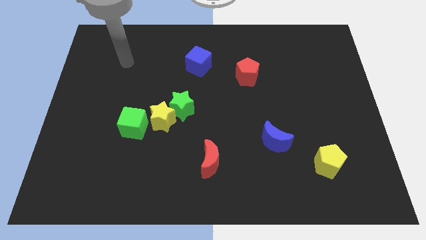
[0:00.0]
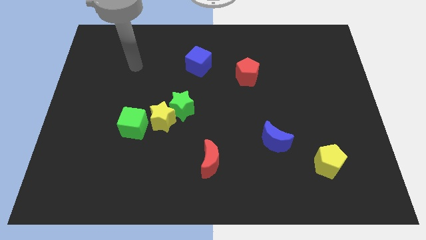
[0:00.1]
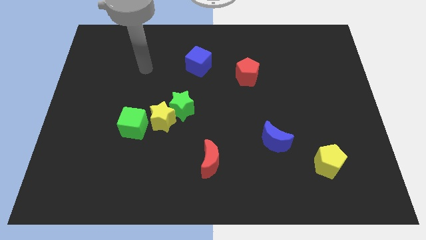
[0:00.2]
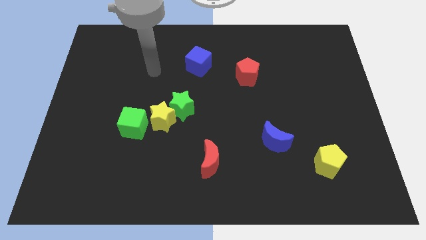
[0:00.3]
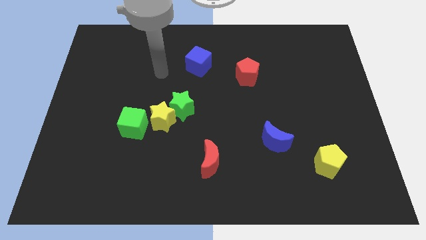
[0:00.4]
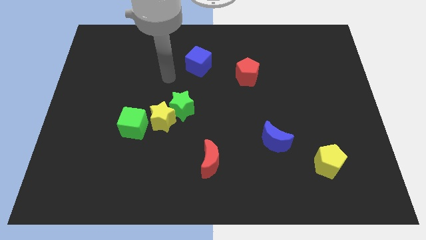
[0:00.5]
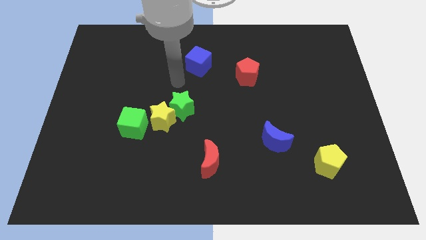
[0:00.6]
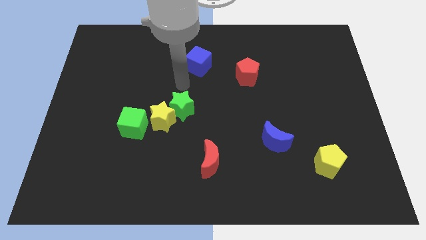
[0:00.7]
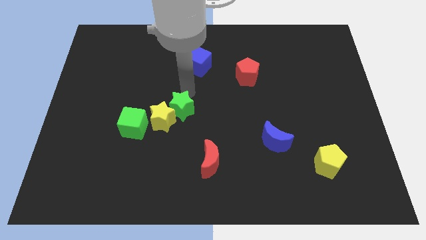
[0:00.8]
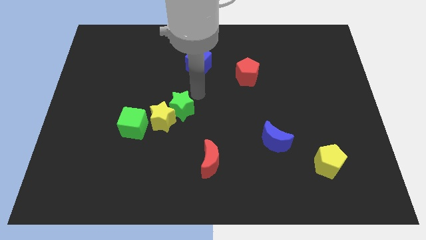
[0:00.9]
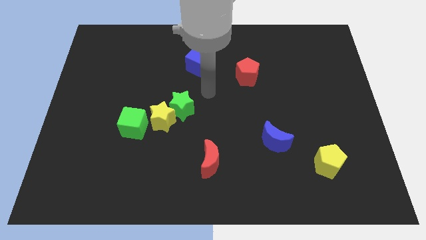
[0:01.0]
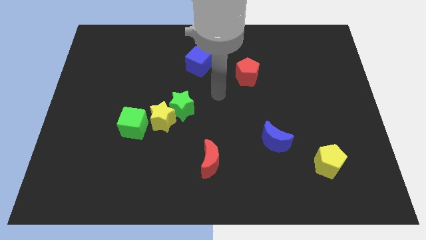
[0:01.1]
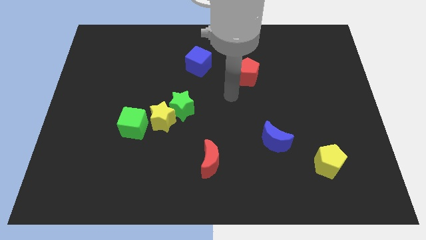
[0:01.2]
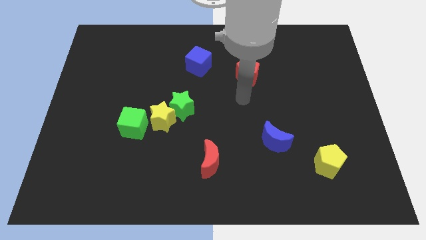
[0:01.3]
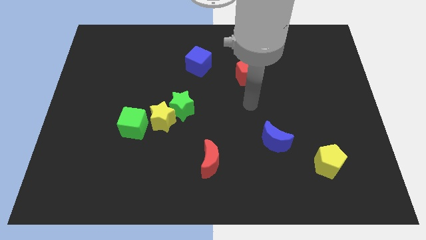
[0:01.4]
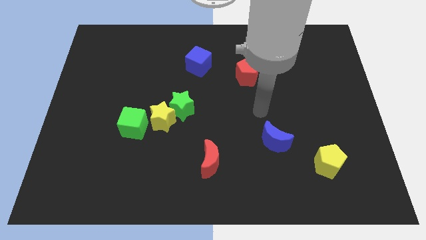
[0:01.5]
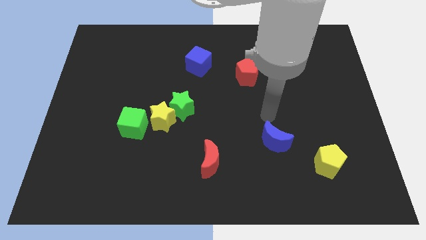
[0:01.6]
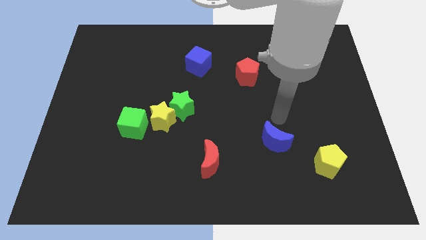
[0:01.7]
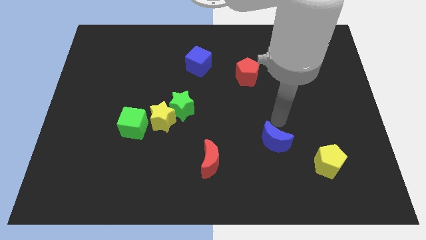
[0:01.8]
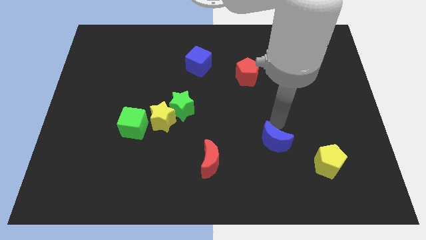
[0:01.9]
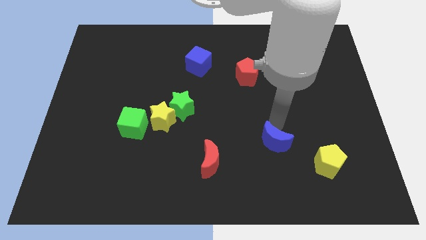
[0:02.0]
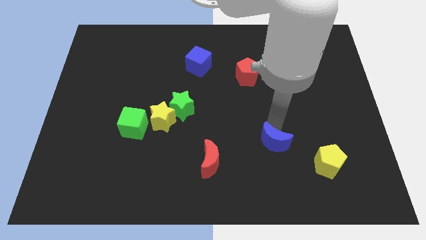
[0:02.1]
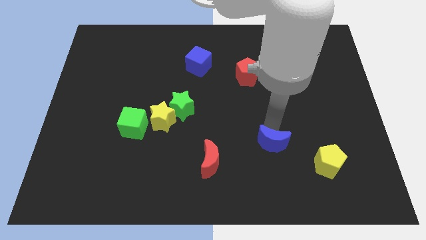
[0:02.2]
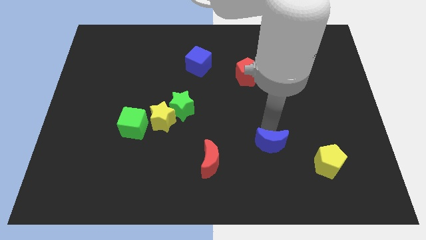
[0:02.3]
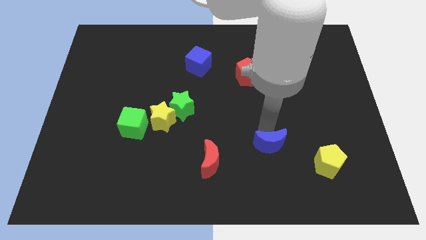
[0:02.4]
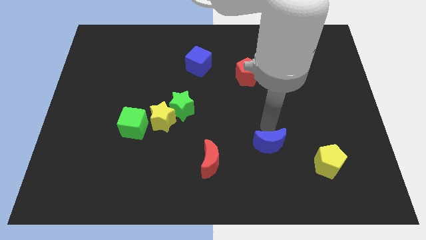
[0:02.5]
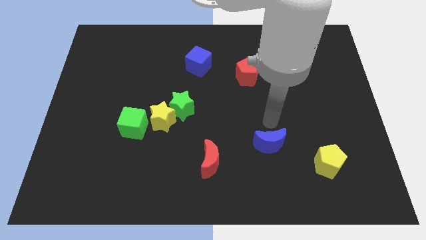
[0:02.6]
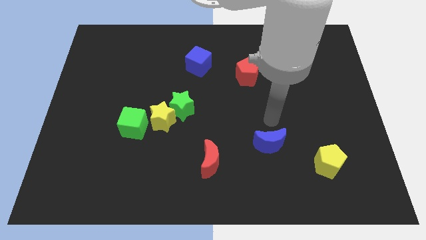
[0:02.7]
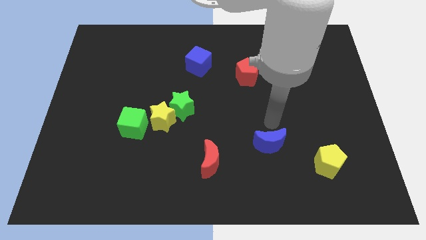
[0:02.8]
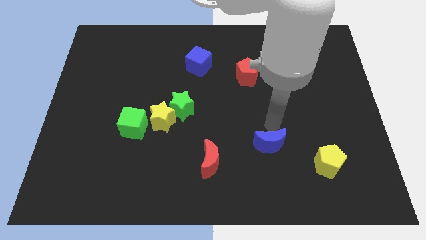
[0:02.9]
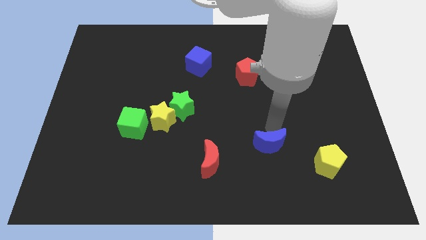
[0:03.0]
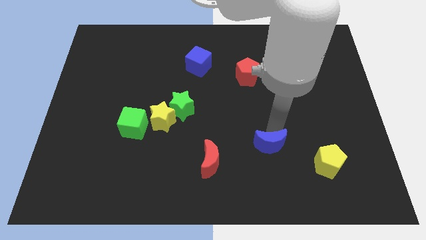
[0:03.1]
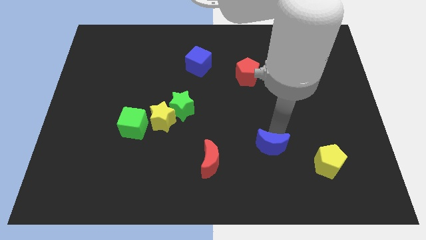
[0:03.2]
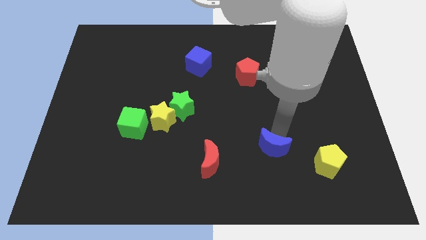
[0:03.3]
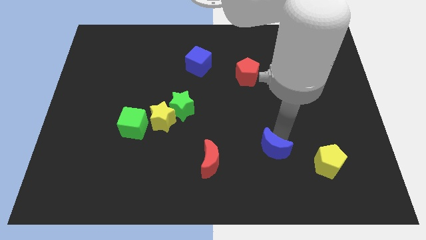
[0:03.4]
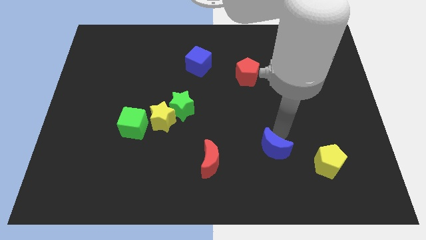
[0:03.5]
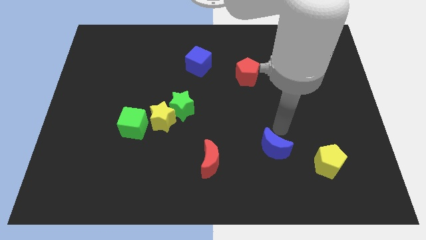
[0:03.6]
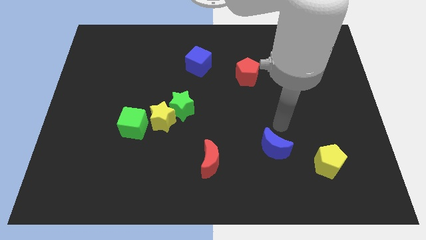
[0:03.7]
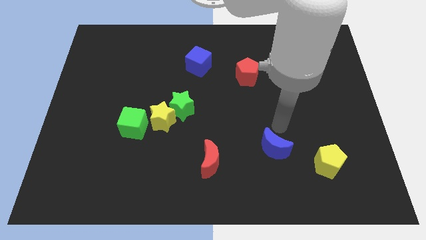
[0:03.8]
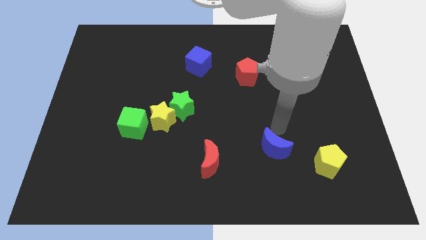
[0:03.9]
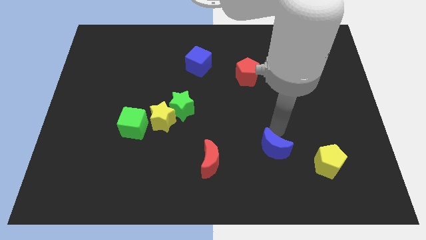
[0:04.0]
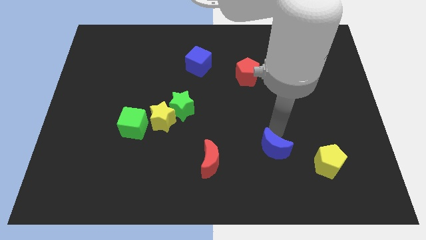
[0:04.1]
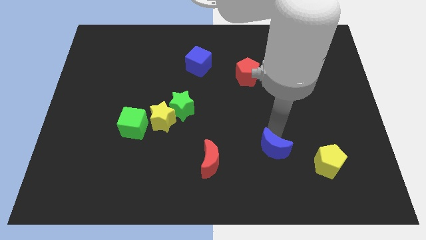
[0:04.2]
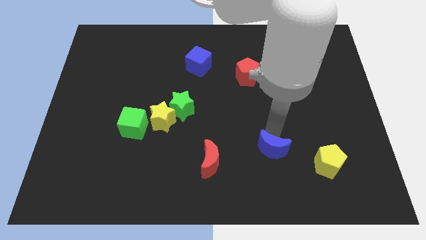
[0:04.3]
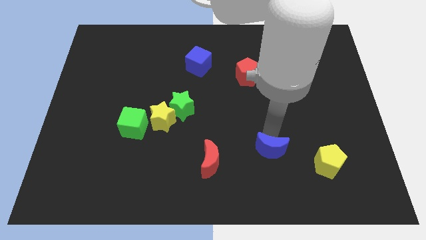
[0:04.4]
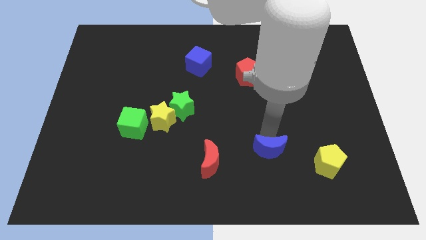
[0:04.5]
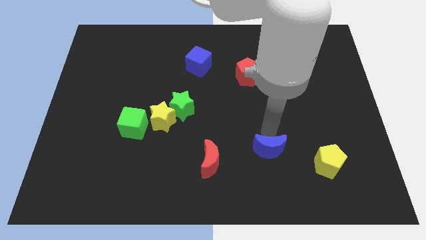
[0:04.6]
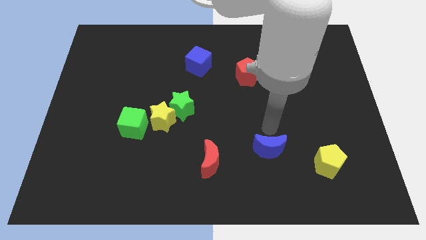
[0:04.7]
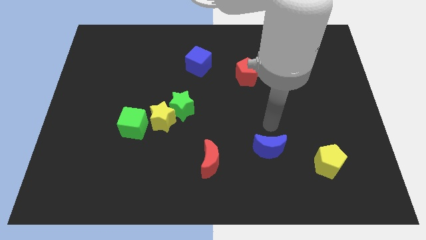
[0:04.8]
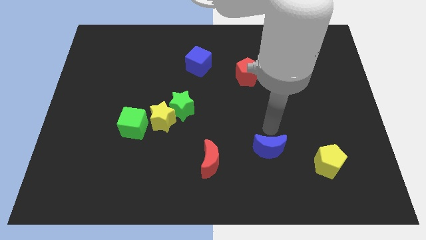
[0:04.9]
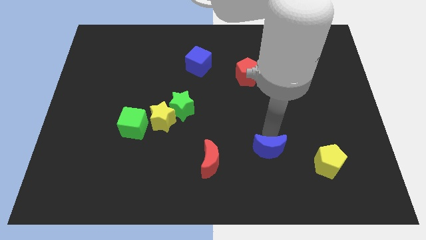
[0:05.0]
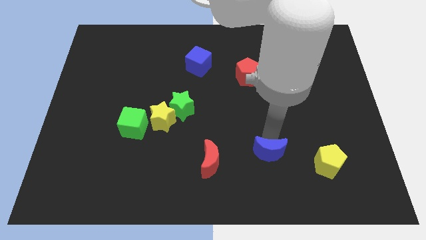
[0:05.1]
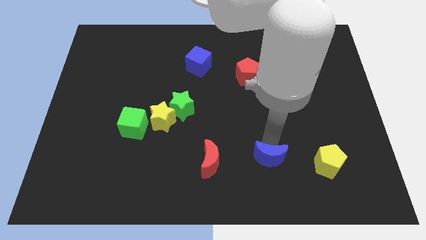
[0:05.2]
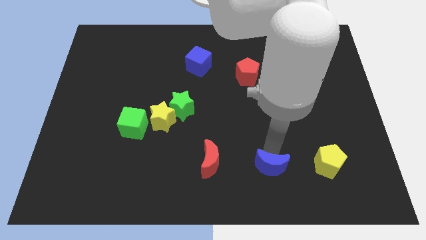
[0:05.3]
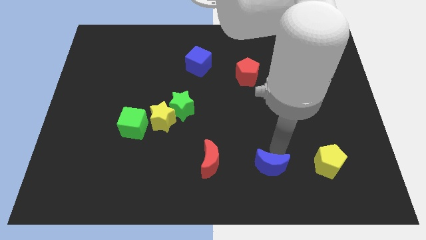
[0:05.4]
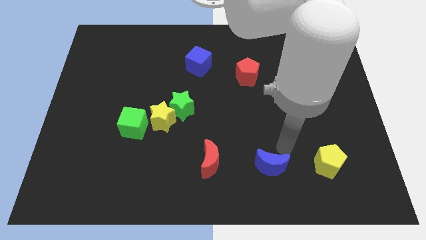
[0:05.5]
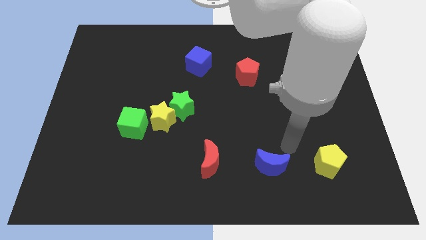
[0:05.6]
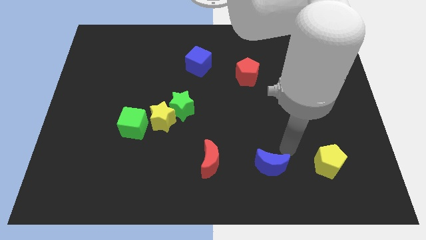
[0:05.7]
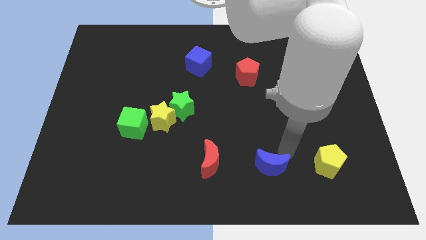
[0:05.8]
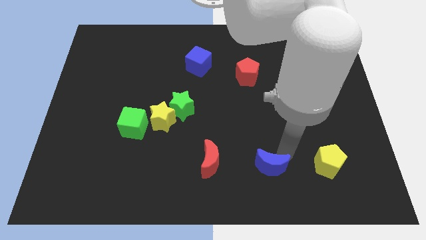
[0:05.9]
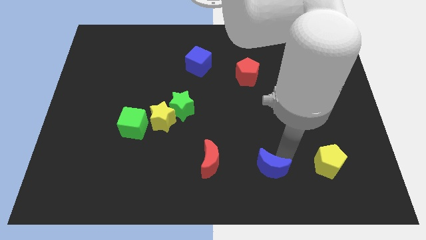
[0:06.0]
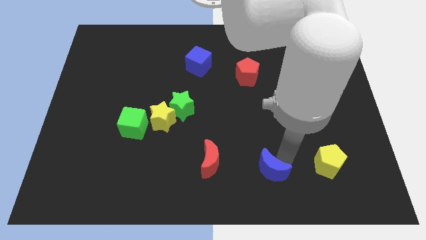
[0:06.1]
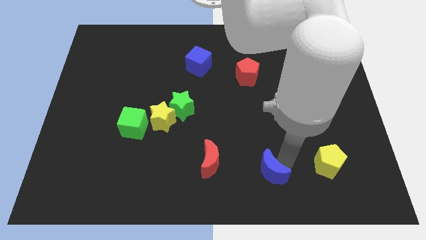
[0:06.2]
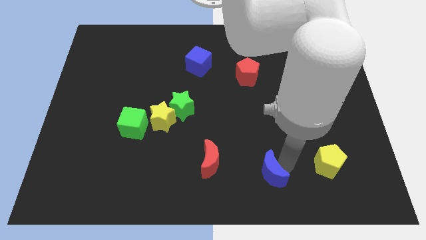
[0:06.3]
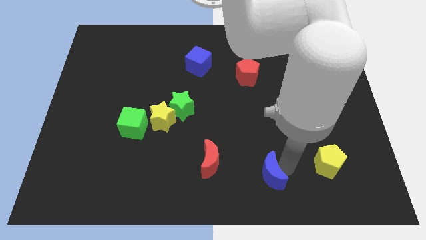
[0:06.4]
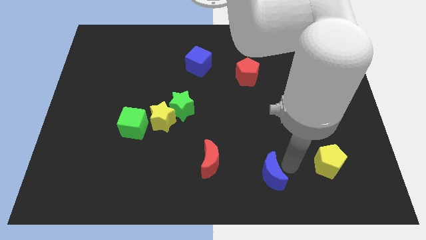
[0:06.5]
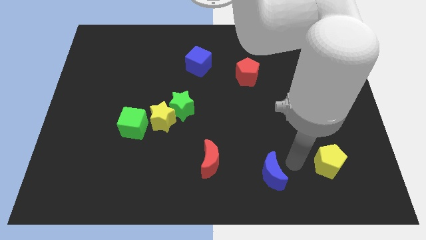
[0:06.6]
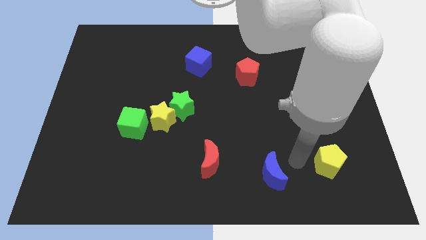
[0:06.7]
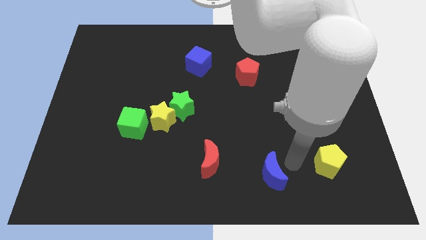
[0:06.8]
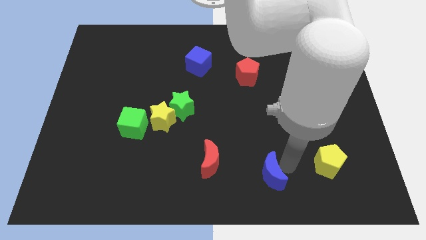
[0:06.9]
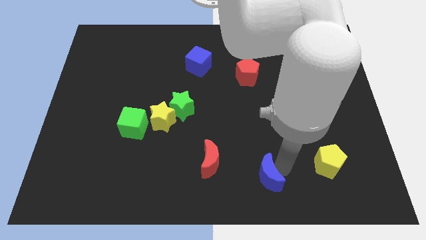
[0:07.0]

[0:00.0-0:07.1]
slide the blue moon to the bottom
